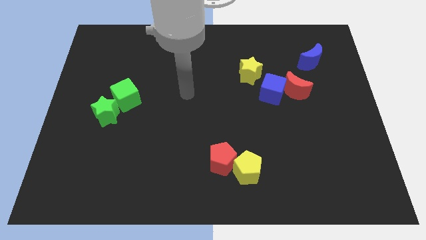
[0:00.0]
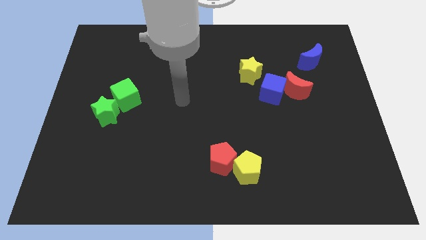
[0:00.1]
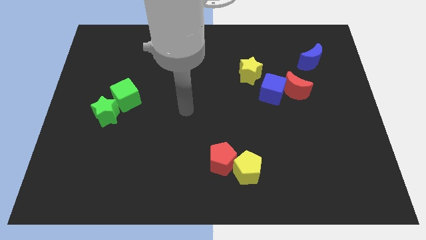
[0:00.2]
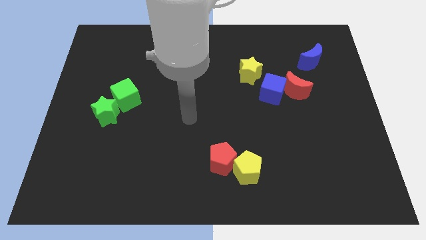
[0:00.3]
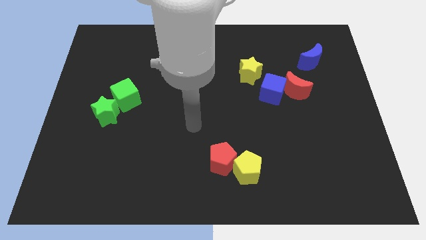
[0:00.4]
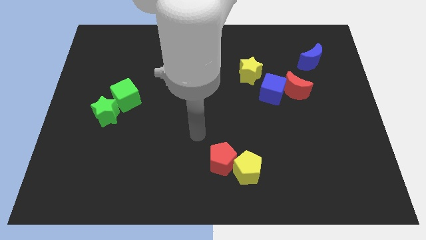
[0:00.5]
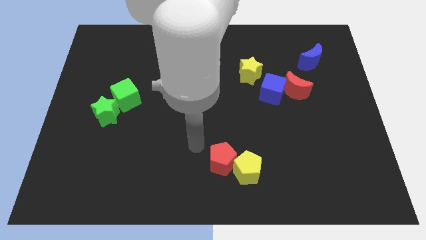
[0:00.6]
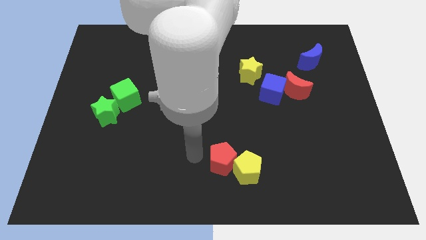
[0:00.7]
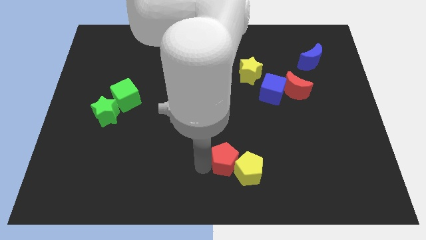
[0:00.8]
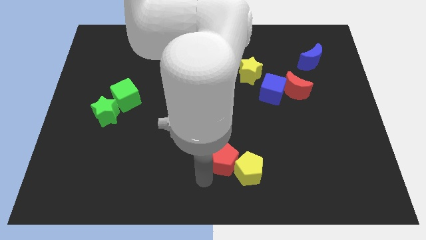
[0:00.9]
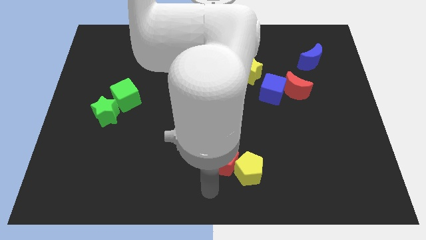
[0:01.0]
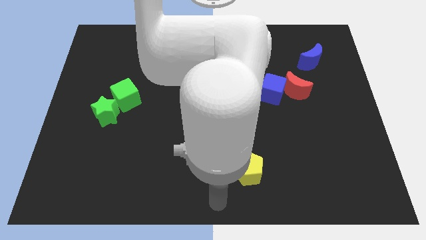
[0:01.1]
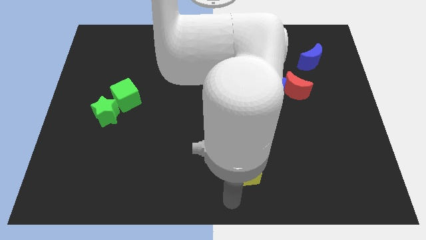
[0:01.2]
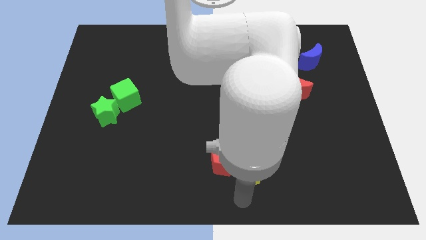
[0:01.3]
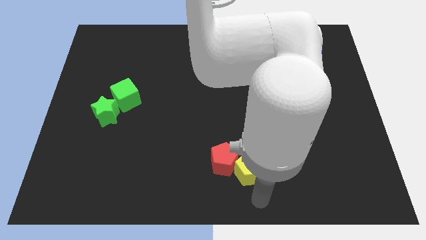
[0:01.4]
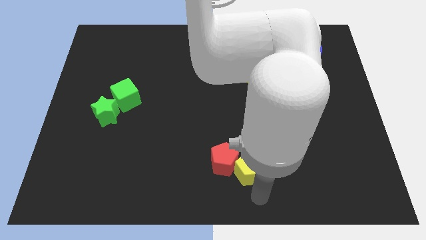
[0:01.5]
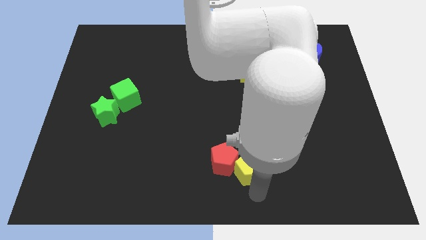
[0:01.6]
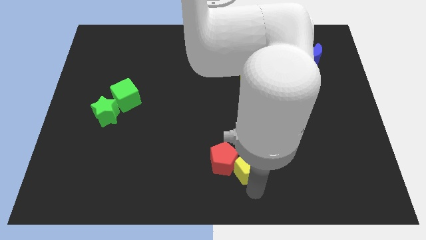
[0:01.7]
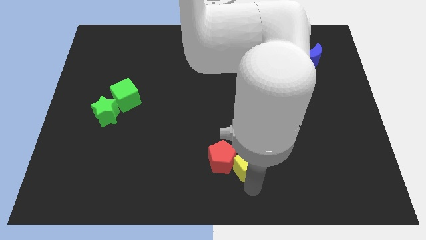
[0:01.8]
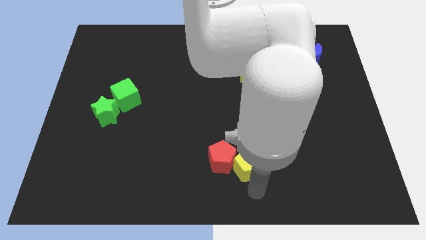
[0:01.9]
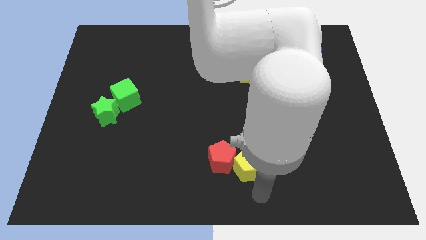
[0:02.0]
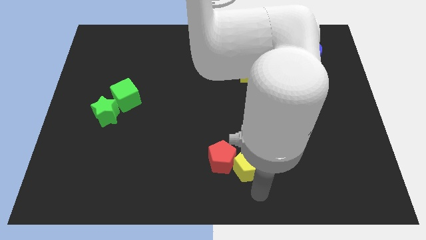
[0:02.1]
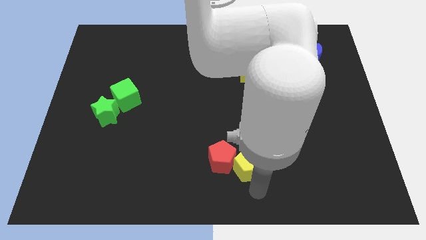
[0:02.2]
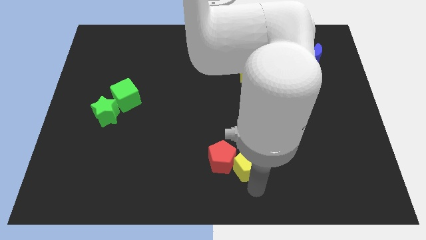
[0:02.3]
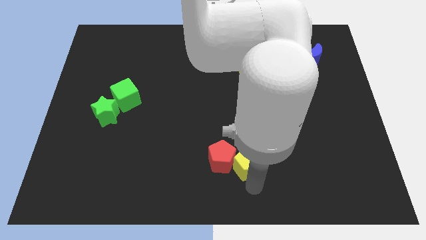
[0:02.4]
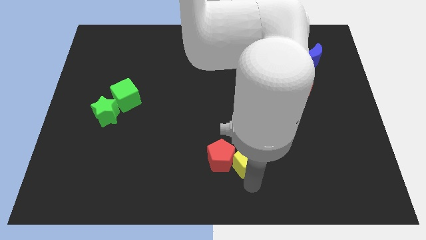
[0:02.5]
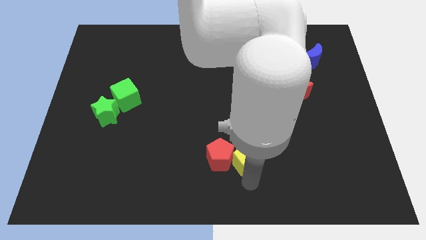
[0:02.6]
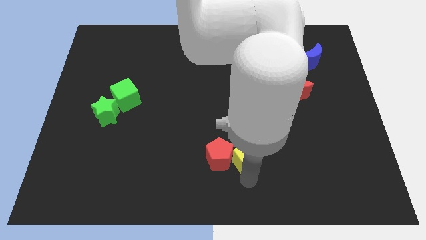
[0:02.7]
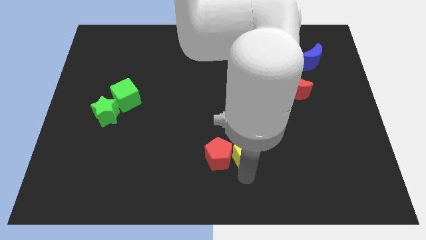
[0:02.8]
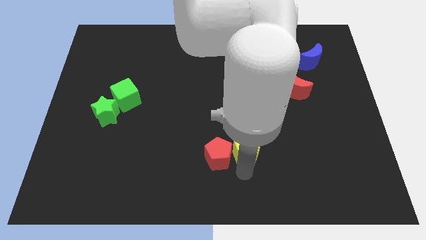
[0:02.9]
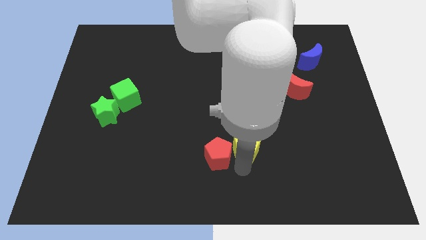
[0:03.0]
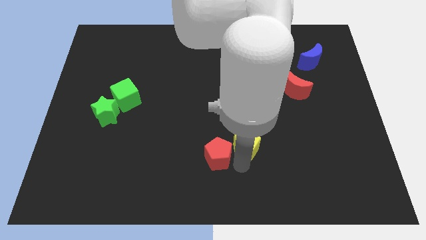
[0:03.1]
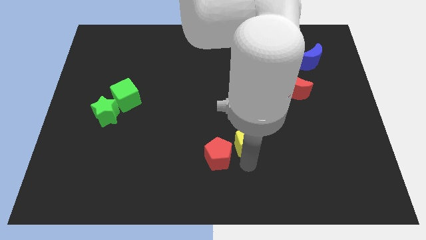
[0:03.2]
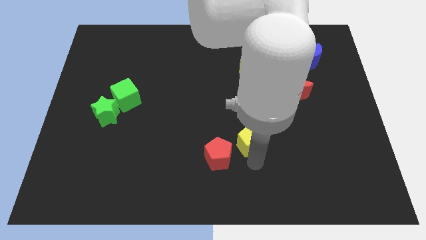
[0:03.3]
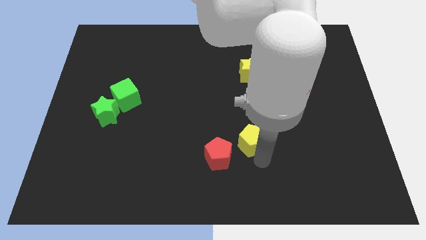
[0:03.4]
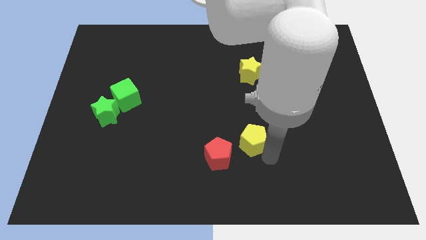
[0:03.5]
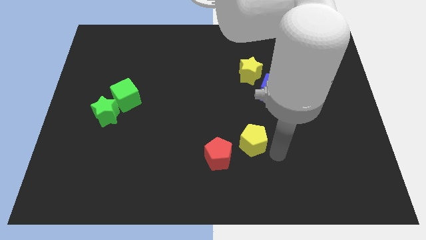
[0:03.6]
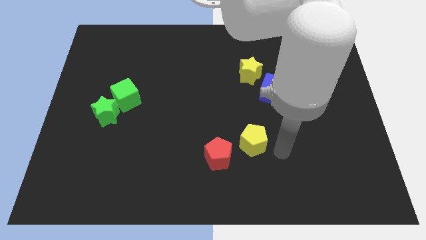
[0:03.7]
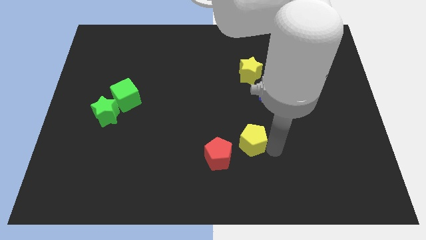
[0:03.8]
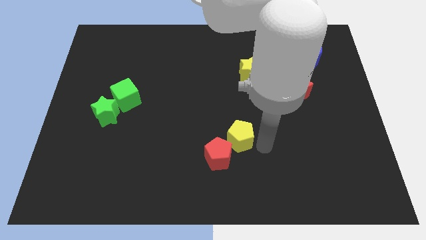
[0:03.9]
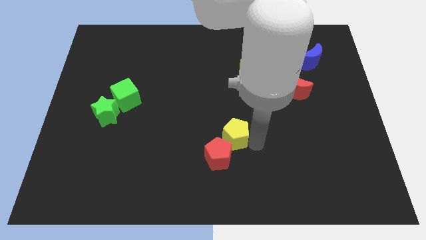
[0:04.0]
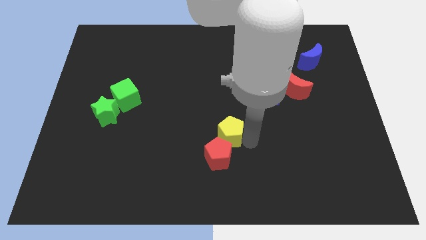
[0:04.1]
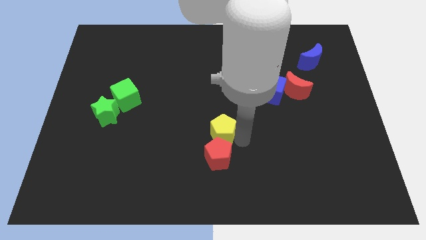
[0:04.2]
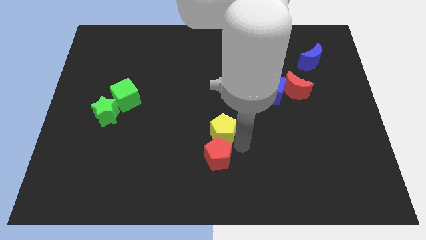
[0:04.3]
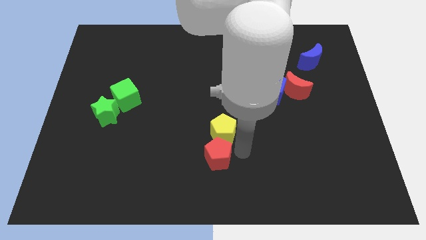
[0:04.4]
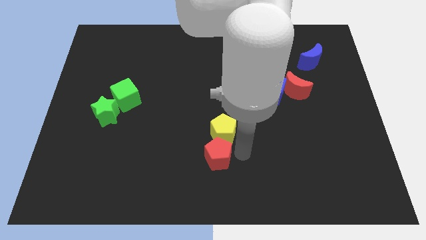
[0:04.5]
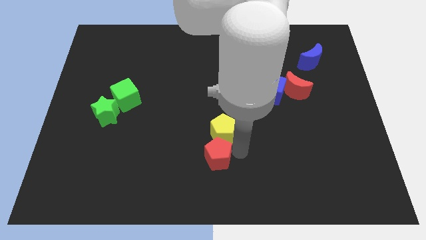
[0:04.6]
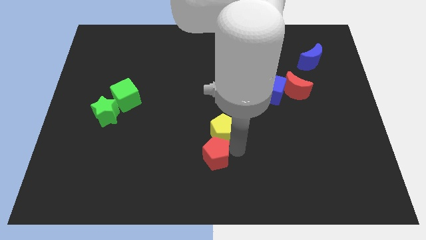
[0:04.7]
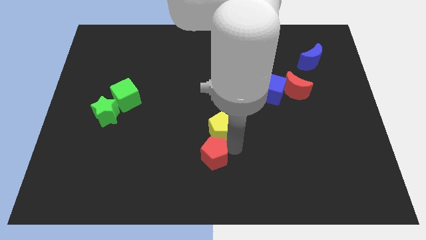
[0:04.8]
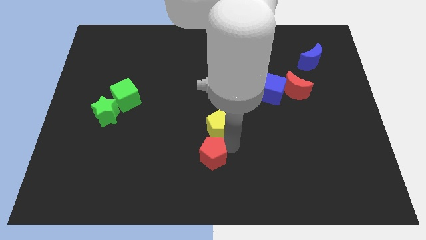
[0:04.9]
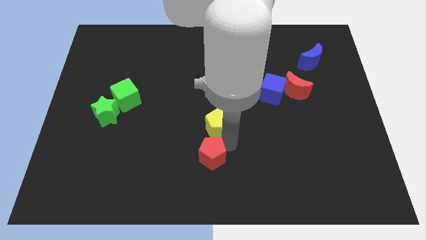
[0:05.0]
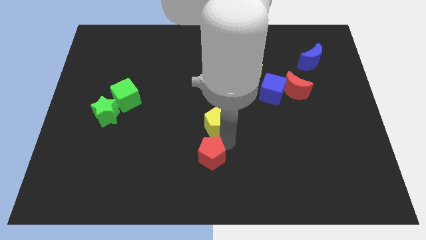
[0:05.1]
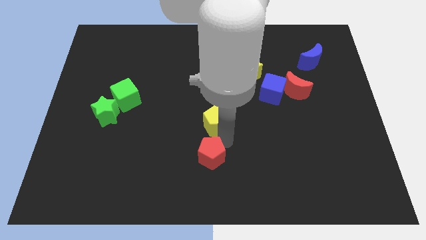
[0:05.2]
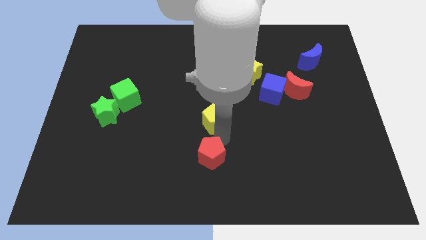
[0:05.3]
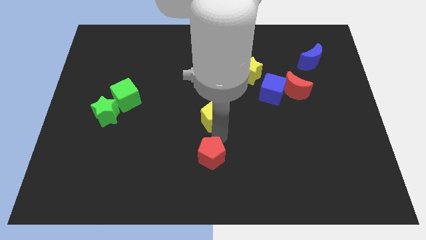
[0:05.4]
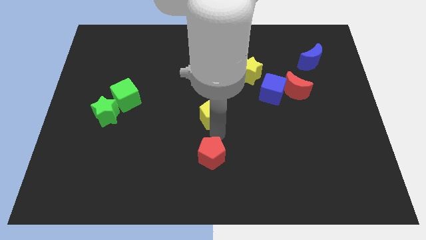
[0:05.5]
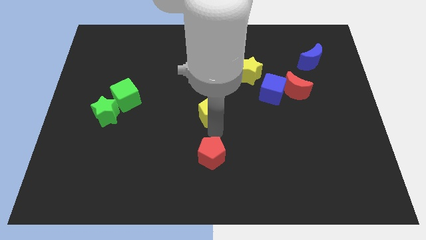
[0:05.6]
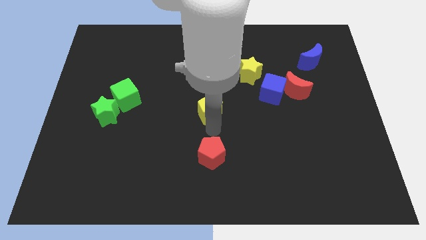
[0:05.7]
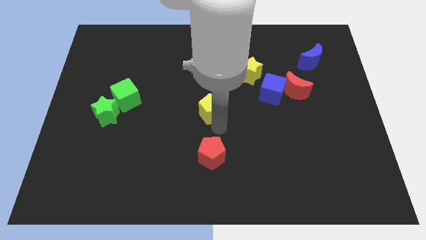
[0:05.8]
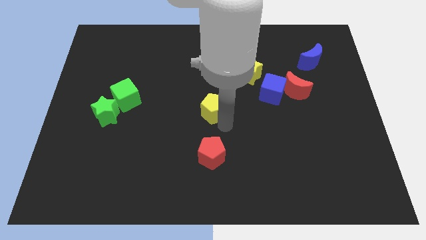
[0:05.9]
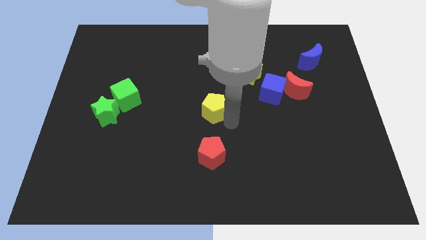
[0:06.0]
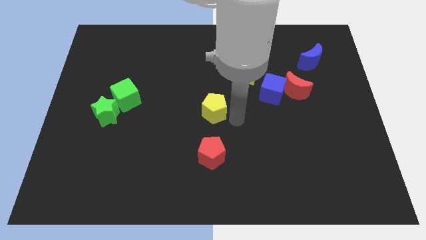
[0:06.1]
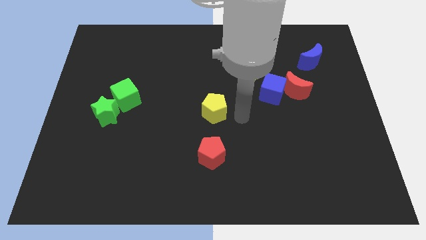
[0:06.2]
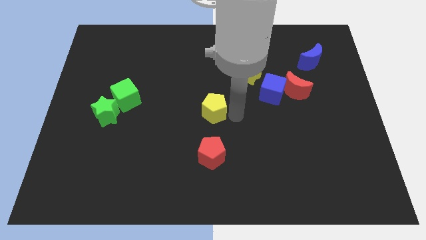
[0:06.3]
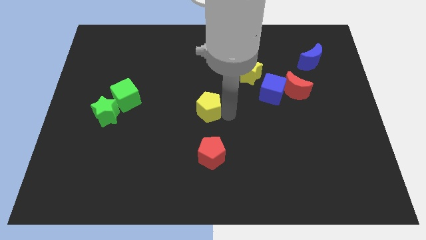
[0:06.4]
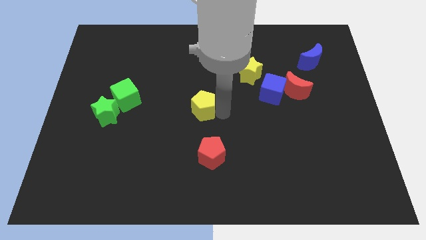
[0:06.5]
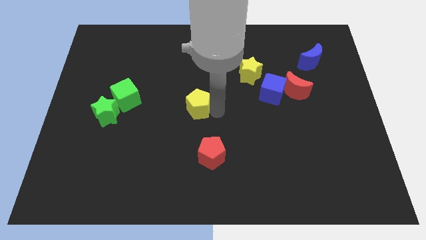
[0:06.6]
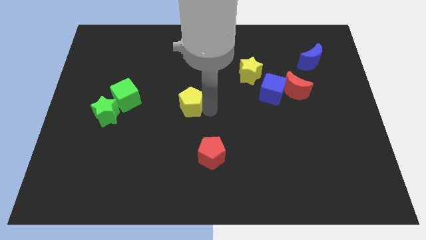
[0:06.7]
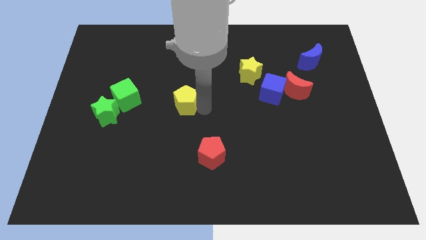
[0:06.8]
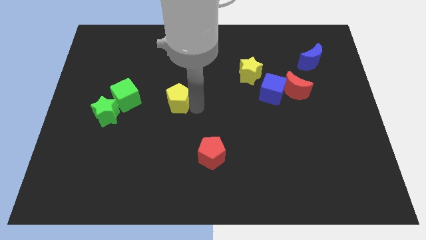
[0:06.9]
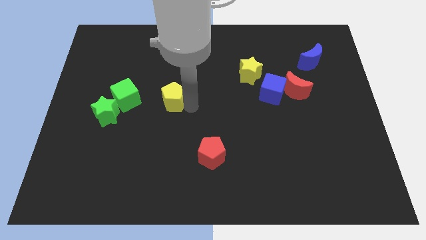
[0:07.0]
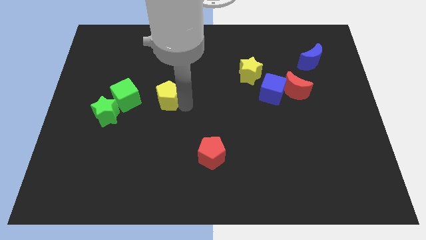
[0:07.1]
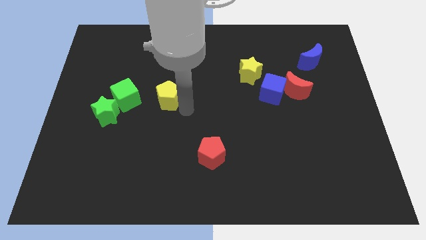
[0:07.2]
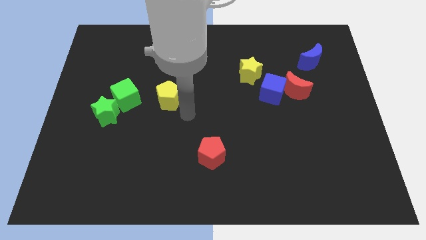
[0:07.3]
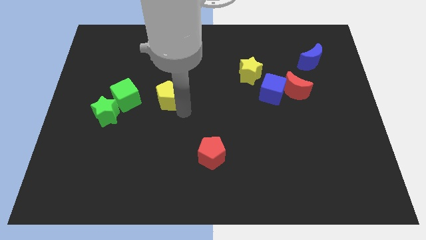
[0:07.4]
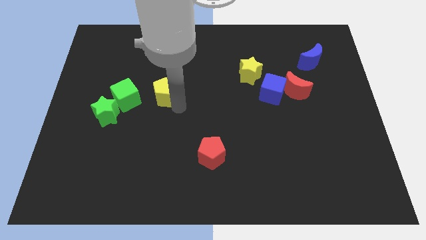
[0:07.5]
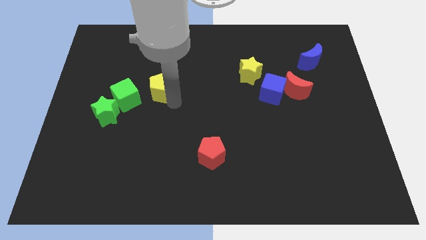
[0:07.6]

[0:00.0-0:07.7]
put the yellow pentagon to the top right side of the green cube

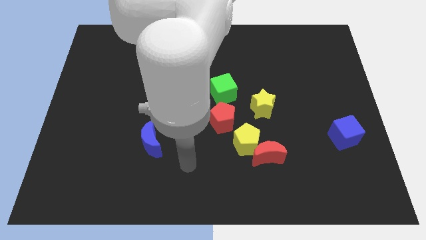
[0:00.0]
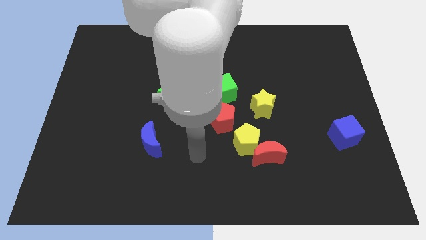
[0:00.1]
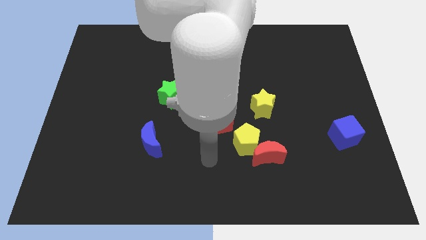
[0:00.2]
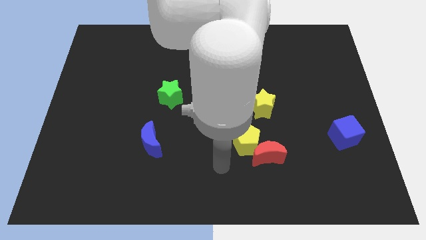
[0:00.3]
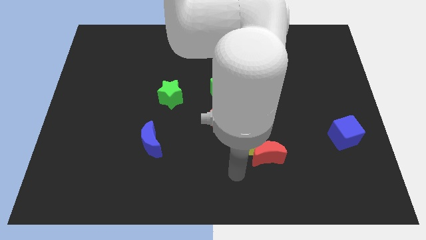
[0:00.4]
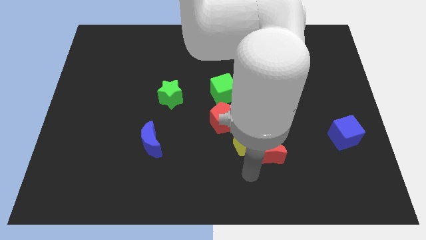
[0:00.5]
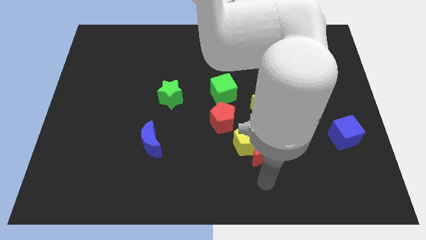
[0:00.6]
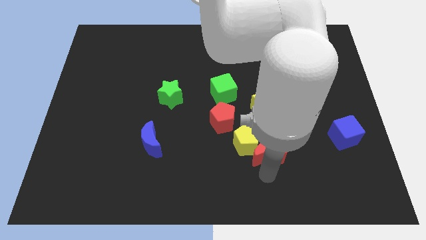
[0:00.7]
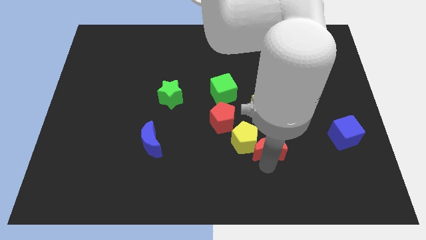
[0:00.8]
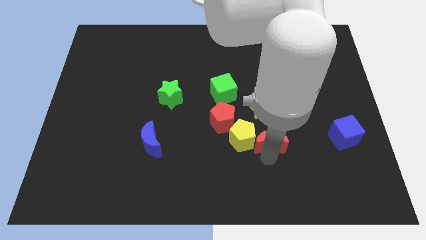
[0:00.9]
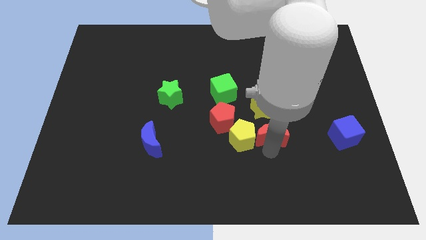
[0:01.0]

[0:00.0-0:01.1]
slide the red moon to the top right of the yellow pentagon
